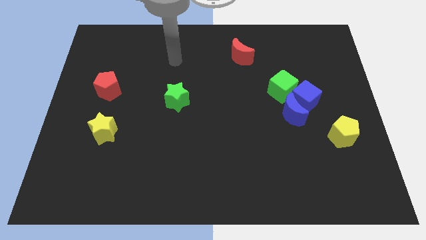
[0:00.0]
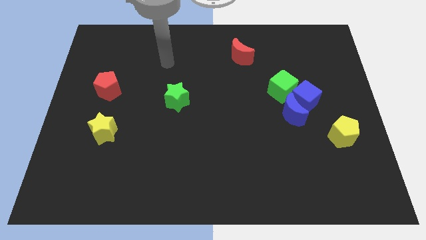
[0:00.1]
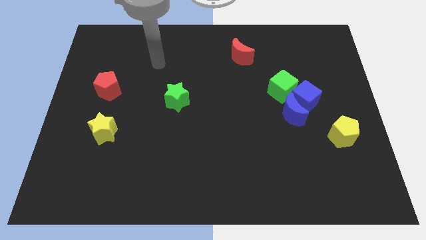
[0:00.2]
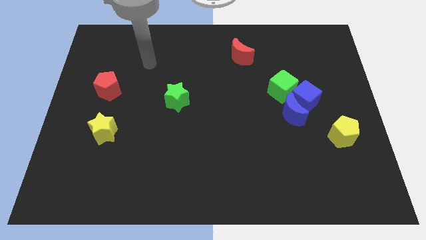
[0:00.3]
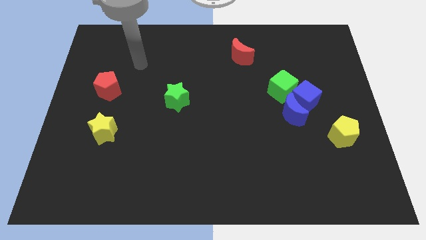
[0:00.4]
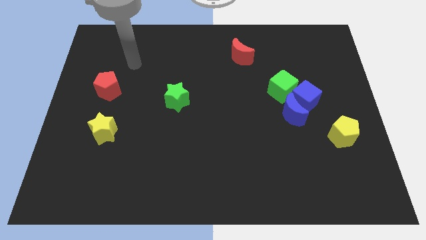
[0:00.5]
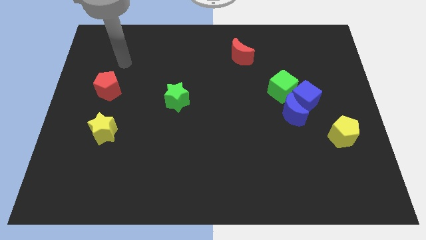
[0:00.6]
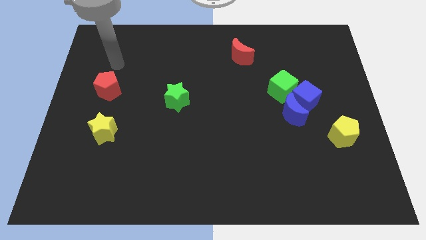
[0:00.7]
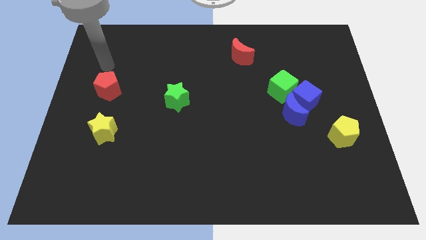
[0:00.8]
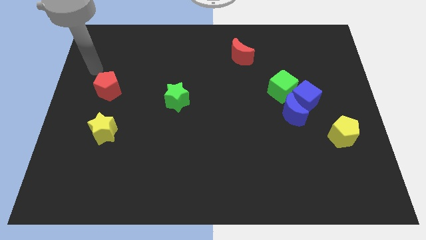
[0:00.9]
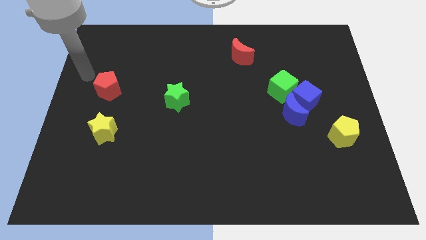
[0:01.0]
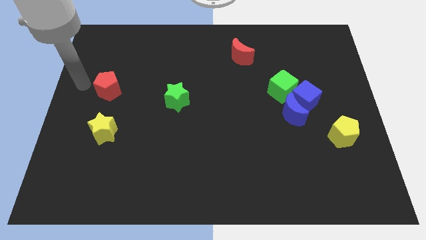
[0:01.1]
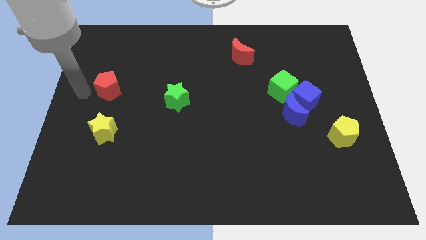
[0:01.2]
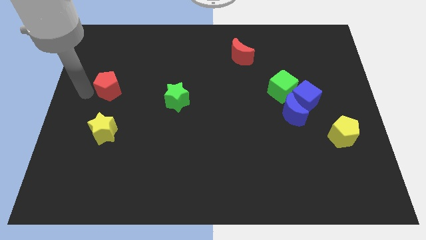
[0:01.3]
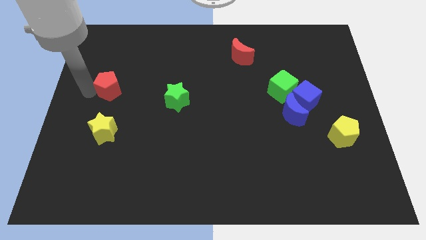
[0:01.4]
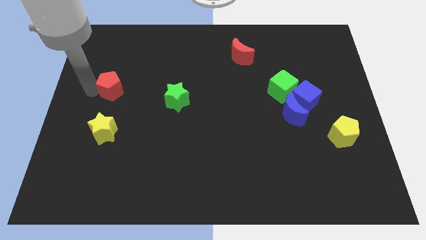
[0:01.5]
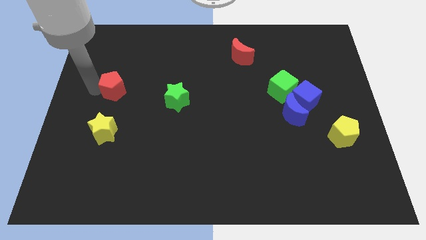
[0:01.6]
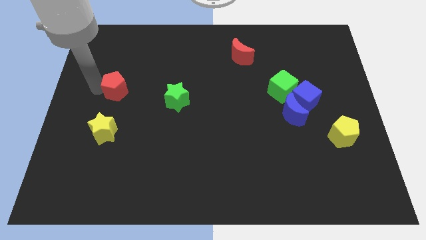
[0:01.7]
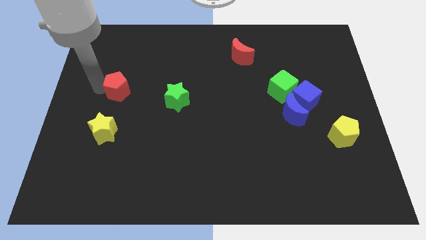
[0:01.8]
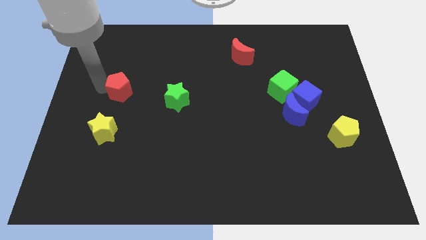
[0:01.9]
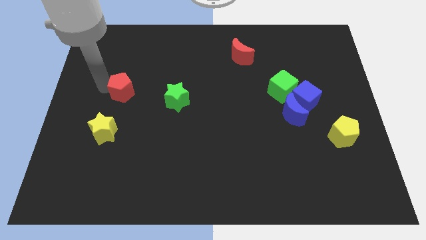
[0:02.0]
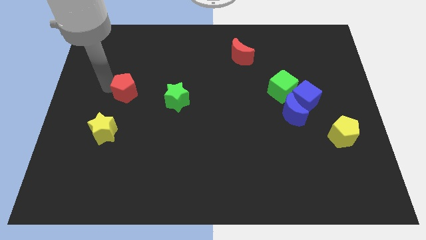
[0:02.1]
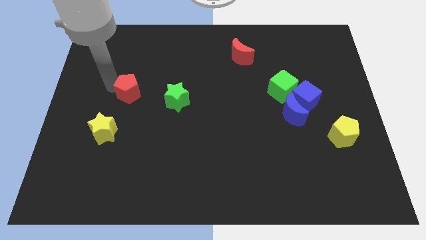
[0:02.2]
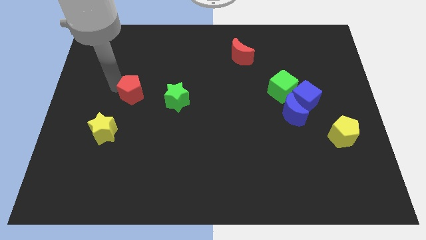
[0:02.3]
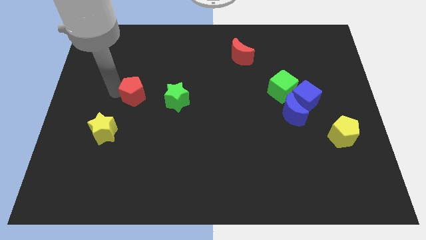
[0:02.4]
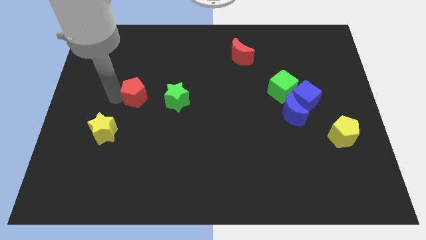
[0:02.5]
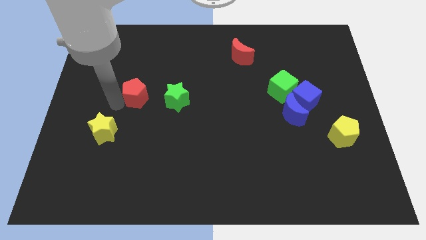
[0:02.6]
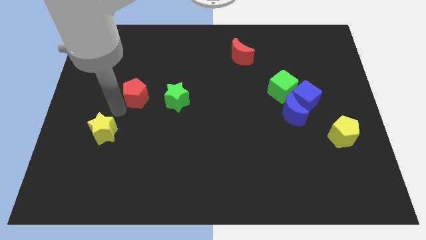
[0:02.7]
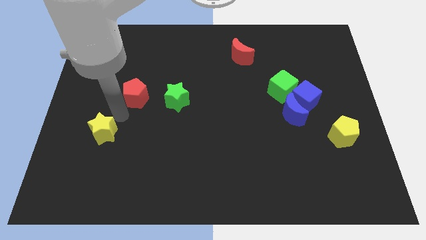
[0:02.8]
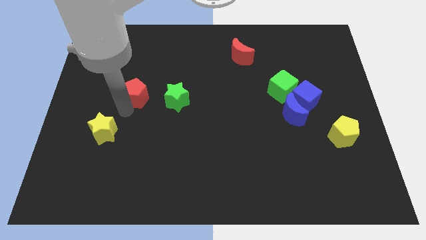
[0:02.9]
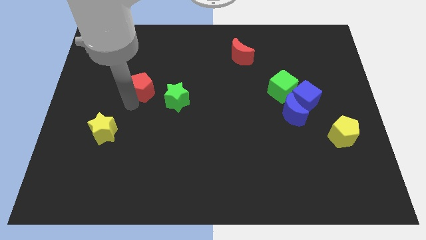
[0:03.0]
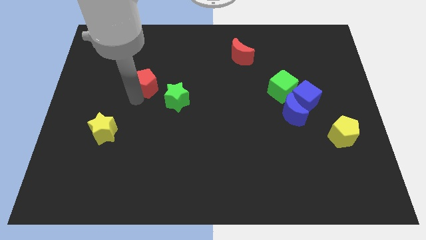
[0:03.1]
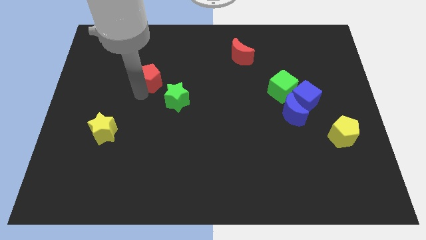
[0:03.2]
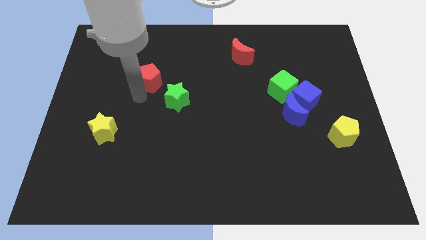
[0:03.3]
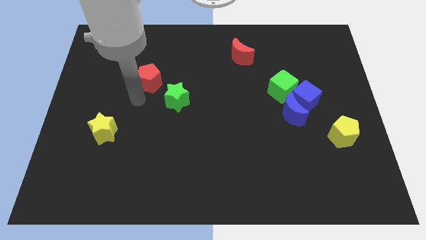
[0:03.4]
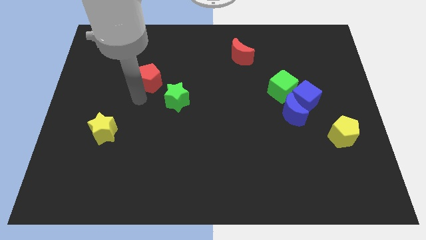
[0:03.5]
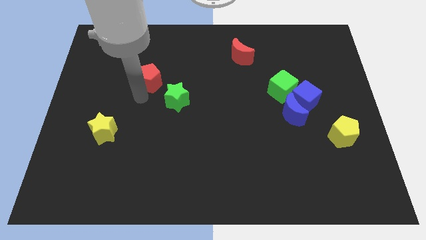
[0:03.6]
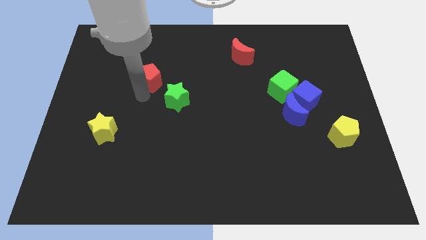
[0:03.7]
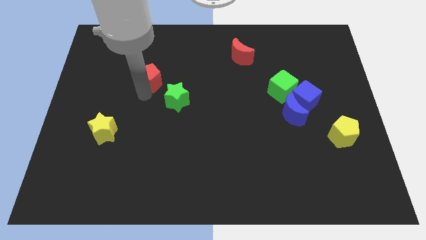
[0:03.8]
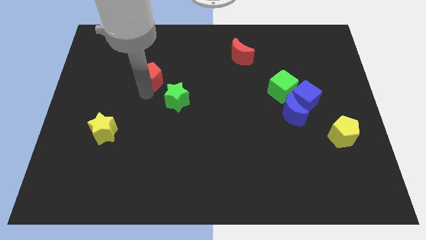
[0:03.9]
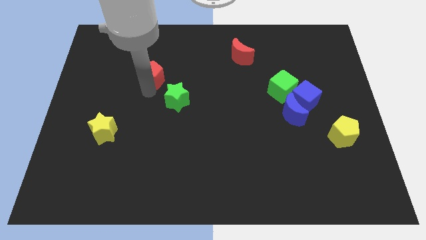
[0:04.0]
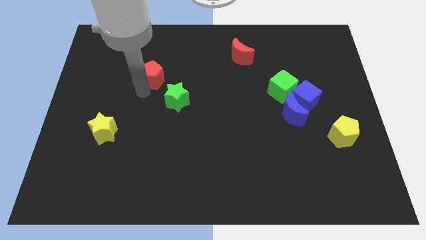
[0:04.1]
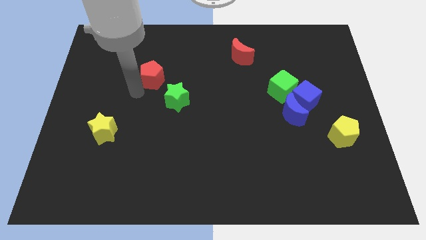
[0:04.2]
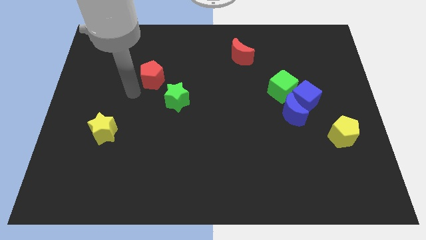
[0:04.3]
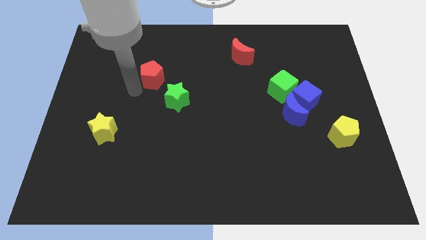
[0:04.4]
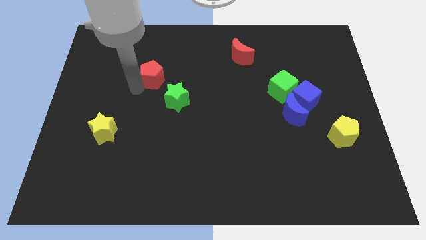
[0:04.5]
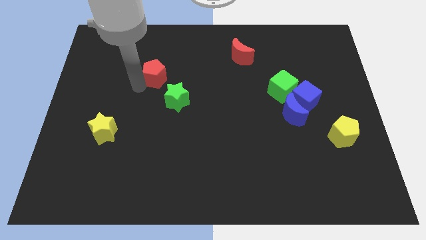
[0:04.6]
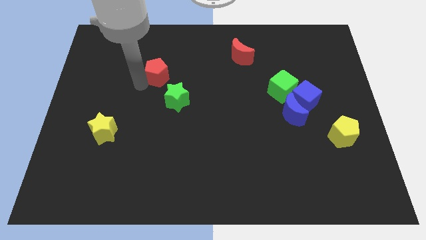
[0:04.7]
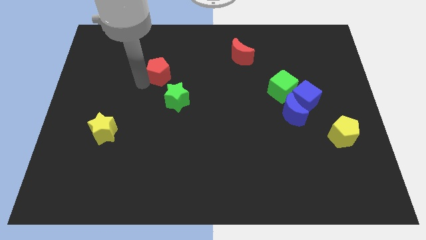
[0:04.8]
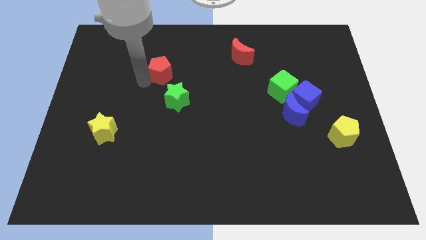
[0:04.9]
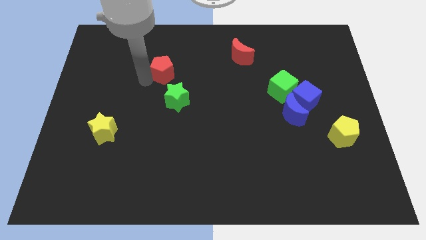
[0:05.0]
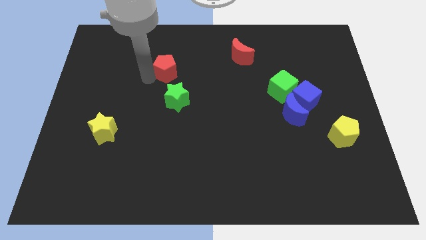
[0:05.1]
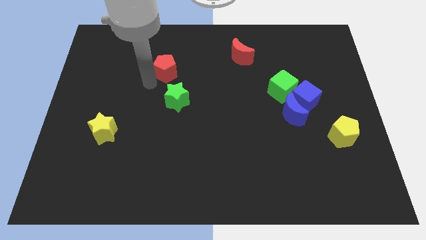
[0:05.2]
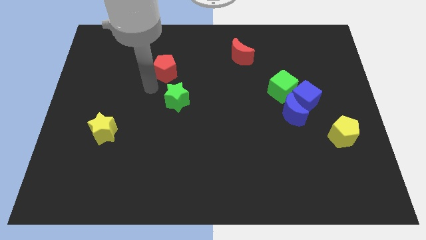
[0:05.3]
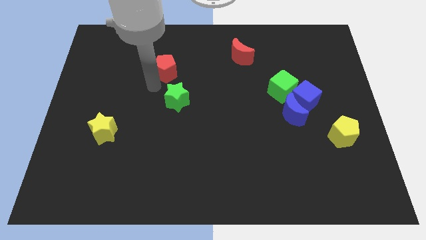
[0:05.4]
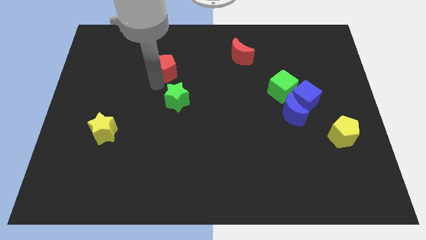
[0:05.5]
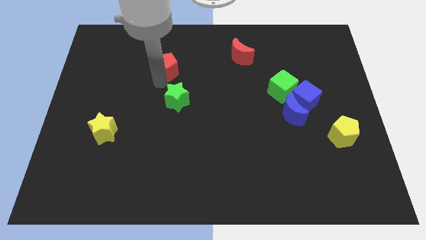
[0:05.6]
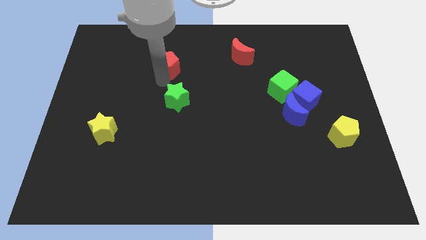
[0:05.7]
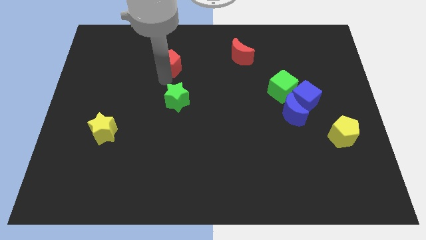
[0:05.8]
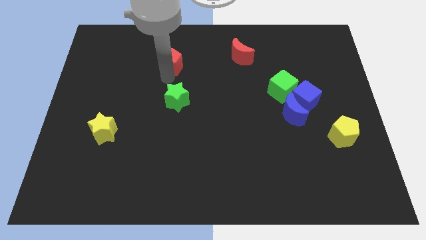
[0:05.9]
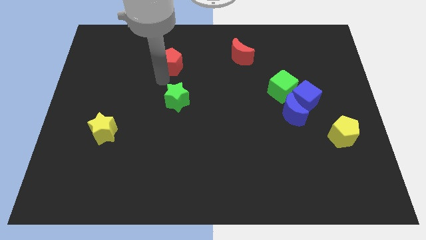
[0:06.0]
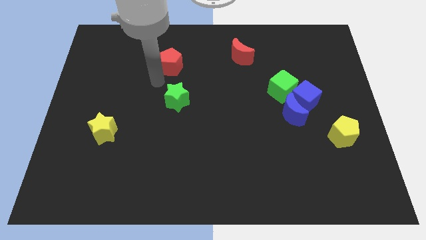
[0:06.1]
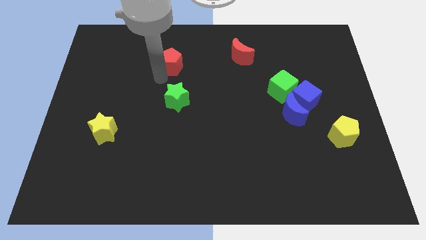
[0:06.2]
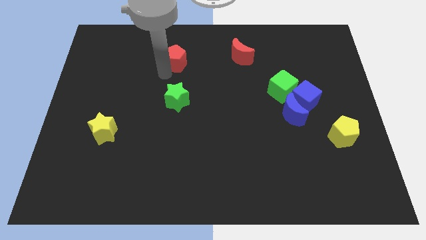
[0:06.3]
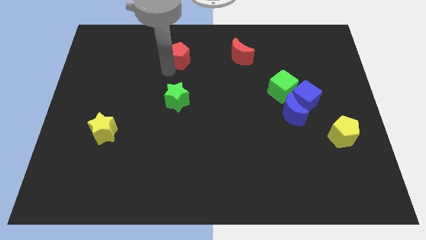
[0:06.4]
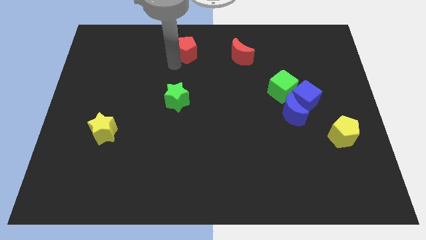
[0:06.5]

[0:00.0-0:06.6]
push the red pentagon to the top

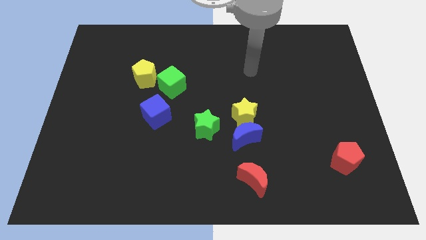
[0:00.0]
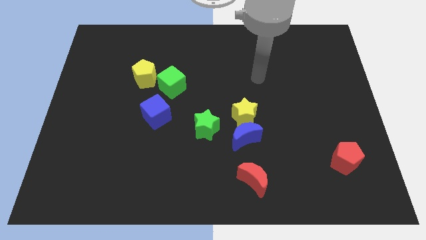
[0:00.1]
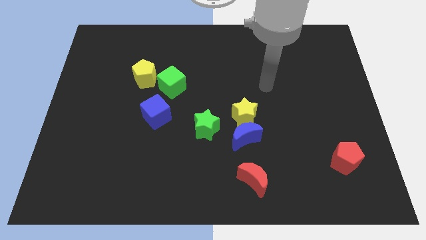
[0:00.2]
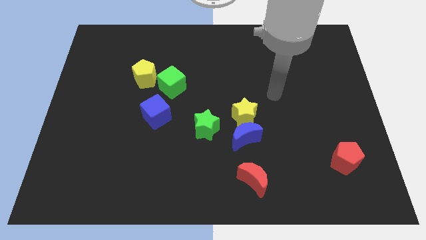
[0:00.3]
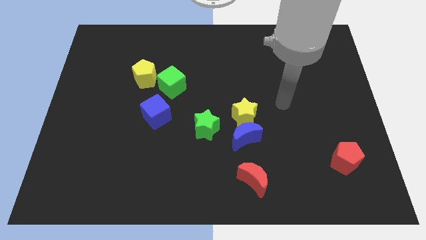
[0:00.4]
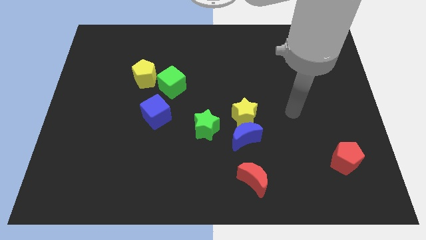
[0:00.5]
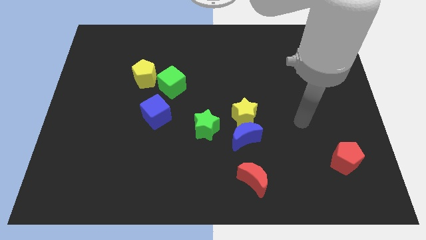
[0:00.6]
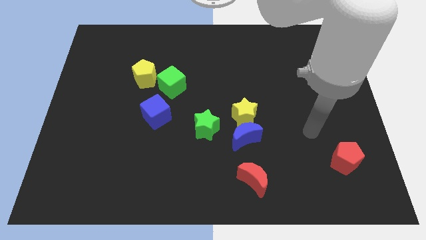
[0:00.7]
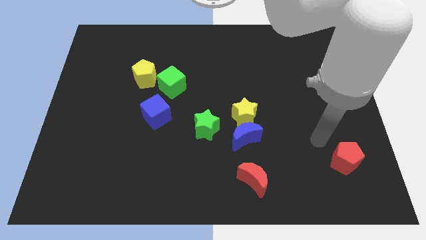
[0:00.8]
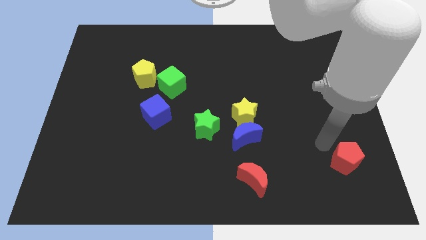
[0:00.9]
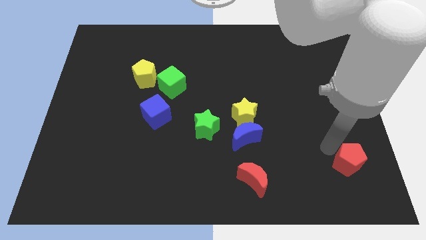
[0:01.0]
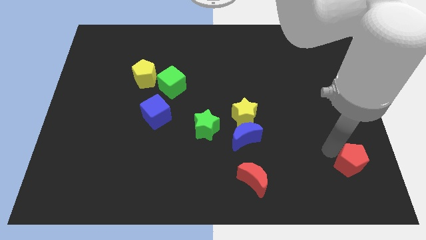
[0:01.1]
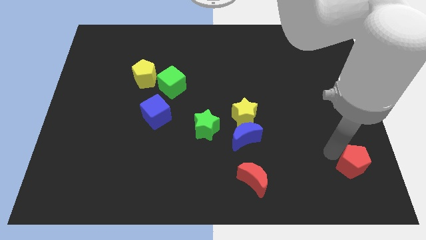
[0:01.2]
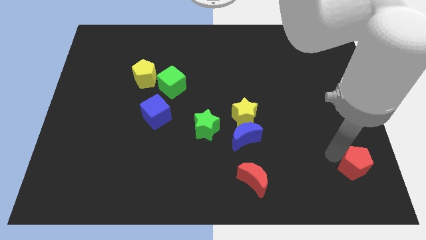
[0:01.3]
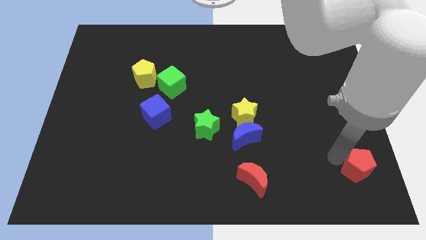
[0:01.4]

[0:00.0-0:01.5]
move the red pentagon to the bottom right
